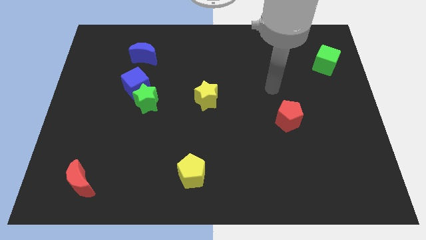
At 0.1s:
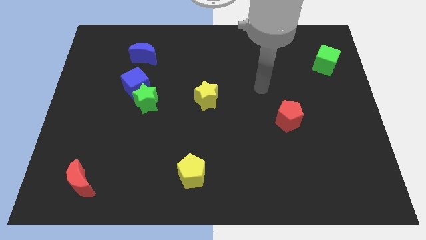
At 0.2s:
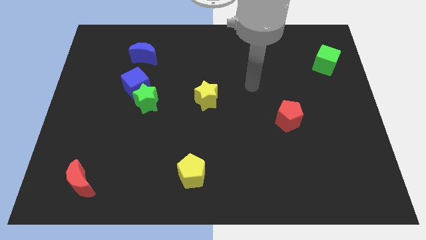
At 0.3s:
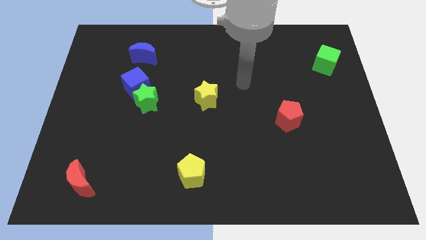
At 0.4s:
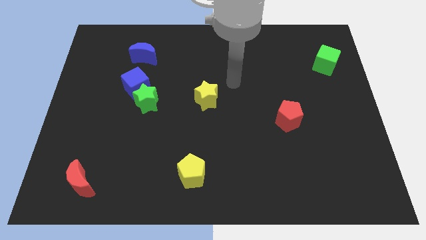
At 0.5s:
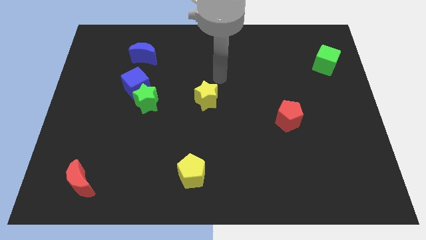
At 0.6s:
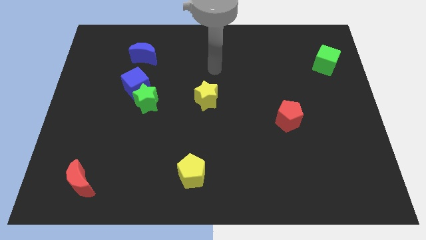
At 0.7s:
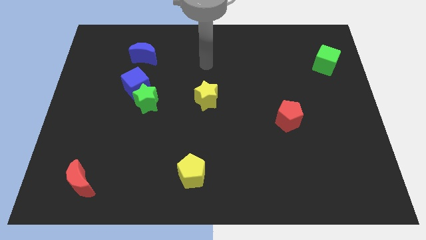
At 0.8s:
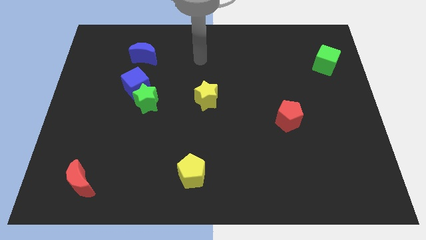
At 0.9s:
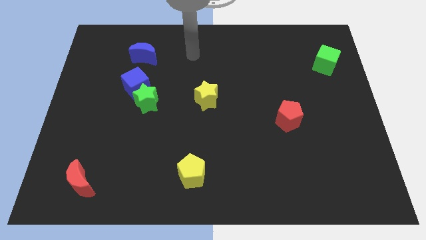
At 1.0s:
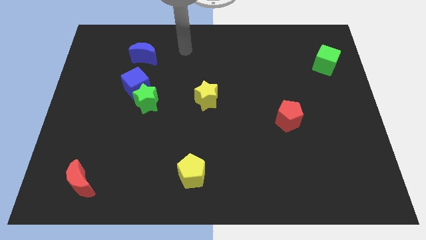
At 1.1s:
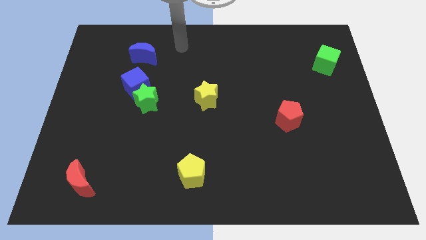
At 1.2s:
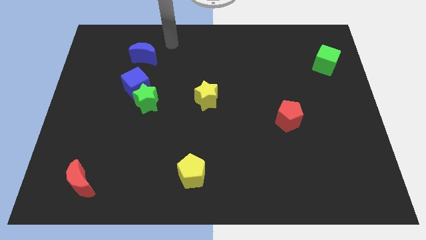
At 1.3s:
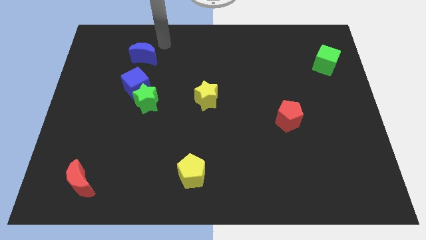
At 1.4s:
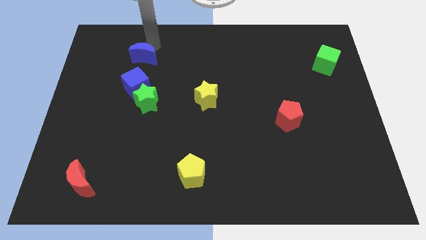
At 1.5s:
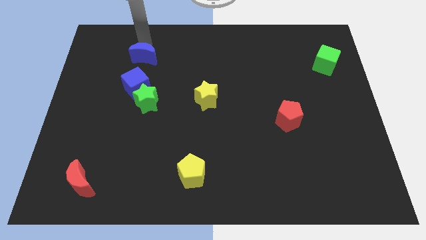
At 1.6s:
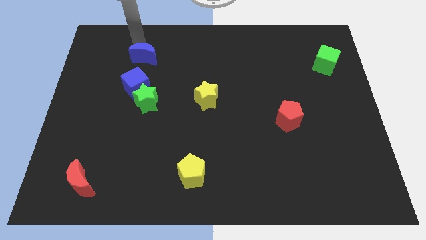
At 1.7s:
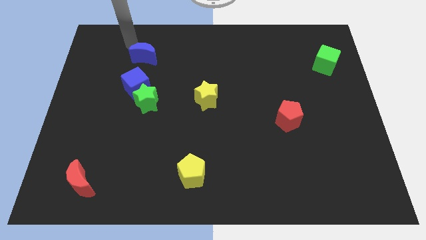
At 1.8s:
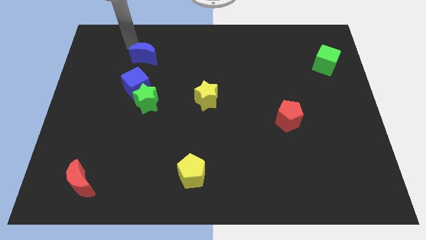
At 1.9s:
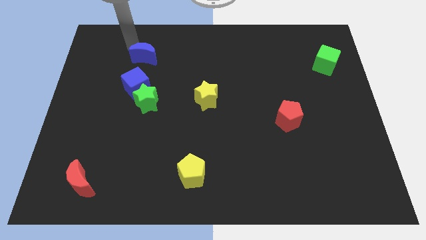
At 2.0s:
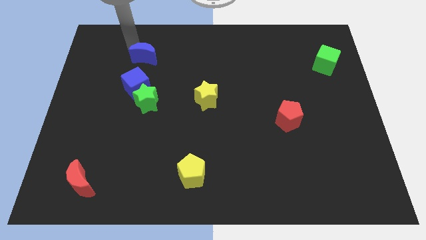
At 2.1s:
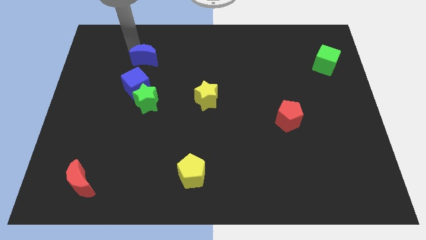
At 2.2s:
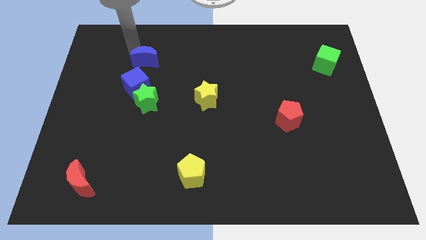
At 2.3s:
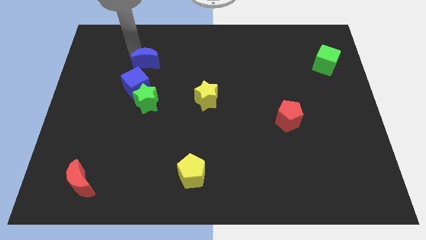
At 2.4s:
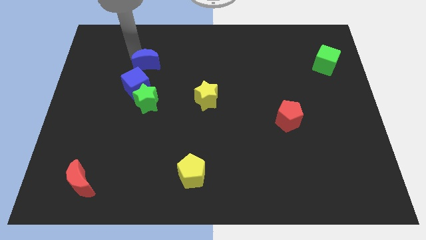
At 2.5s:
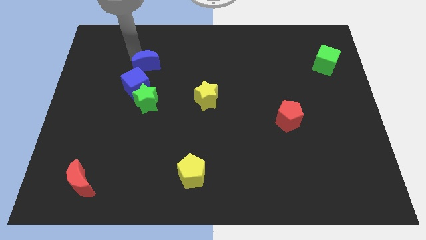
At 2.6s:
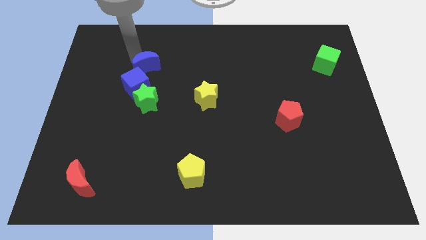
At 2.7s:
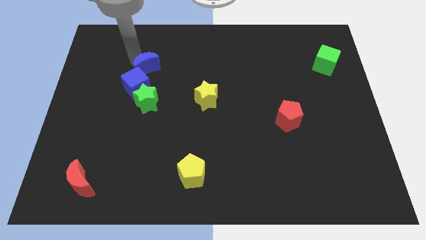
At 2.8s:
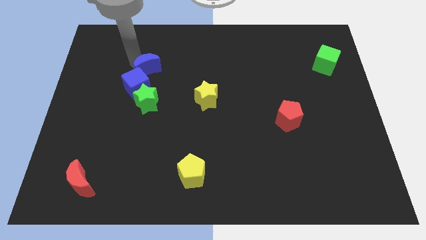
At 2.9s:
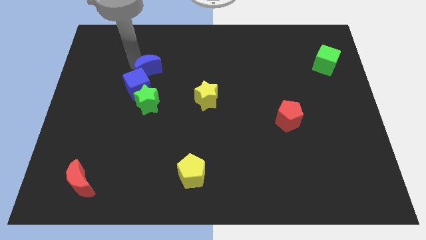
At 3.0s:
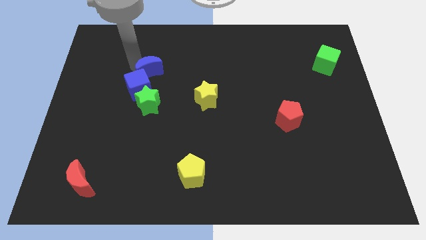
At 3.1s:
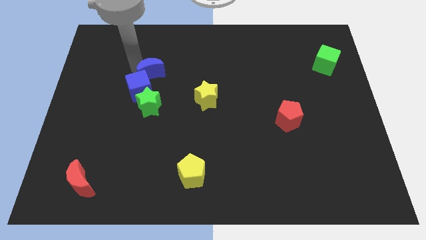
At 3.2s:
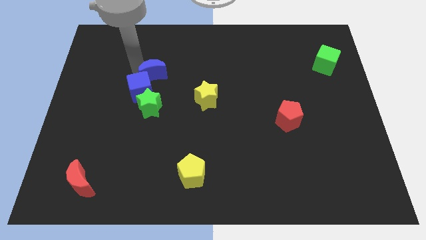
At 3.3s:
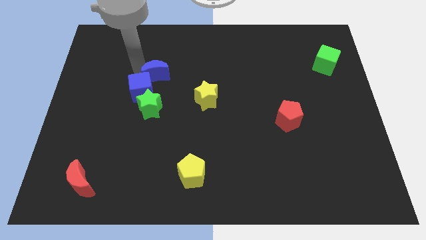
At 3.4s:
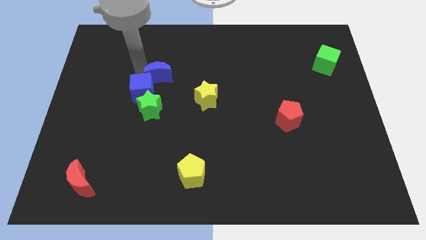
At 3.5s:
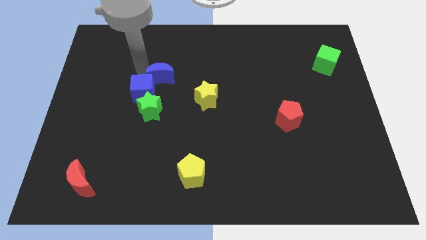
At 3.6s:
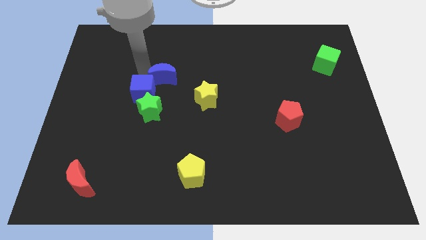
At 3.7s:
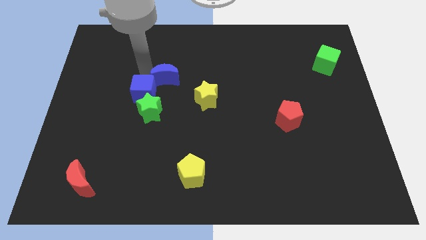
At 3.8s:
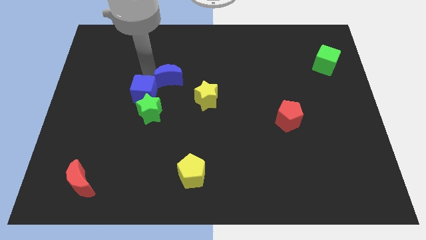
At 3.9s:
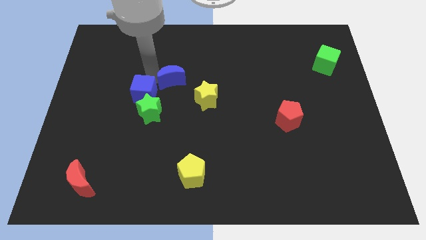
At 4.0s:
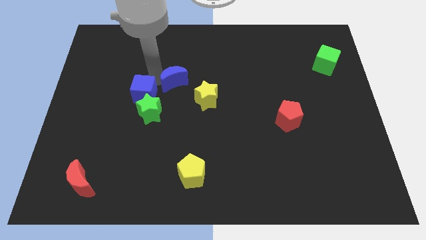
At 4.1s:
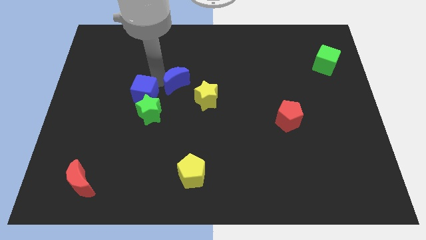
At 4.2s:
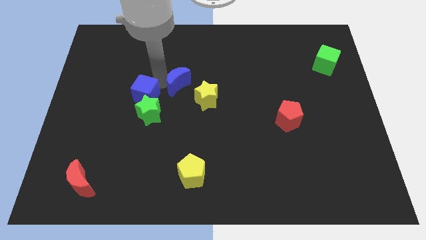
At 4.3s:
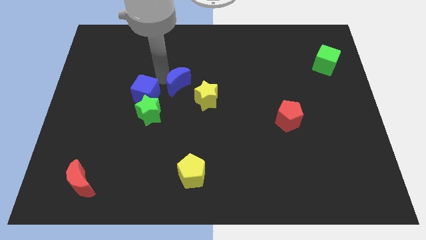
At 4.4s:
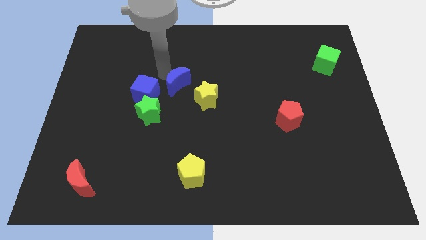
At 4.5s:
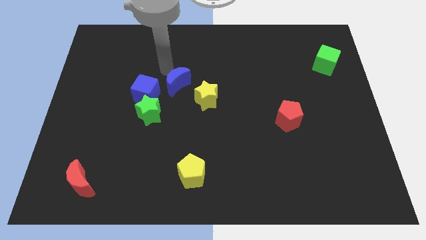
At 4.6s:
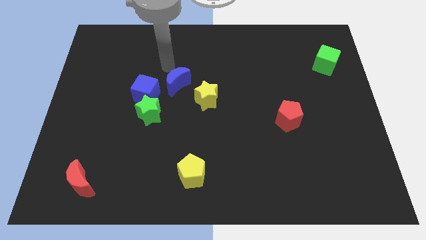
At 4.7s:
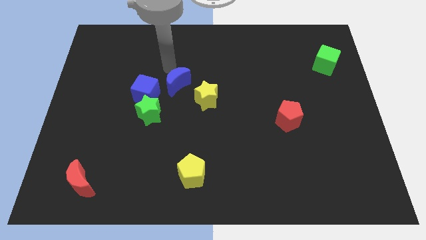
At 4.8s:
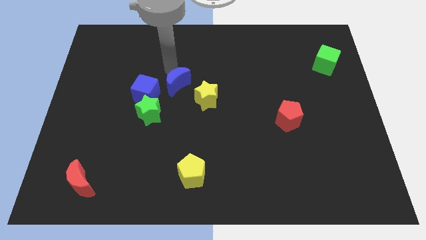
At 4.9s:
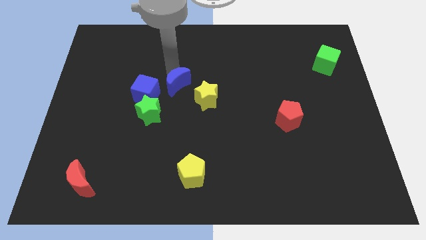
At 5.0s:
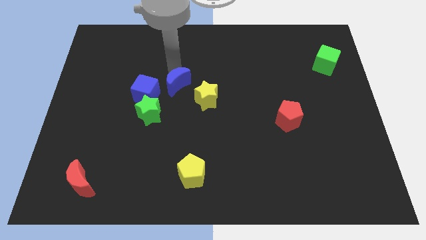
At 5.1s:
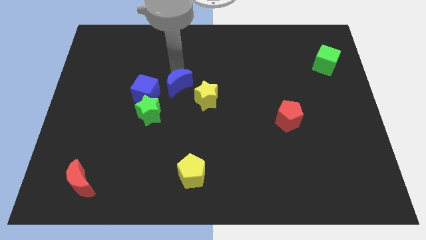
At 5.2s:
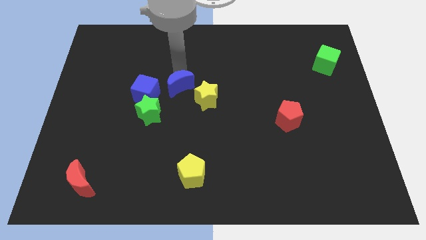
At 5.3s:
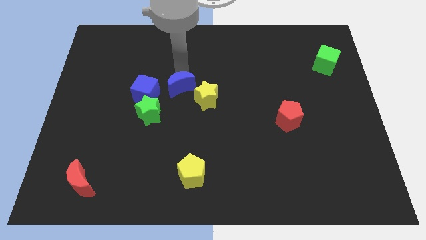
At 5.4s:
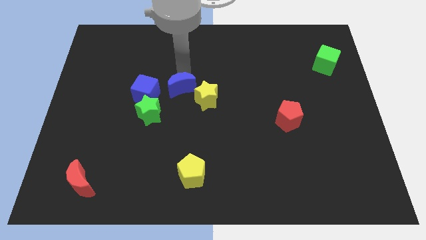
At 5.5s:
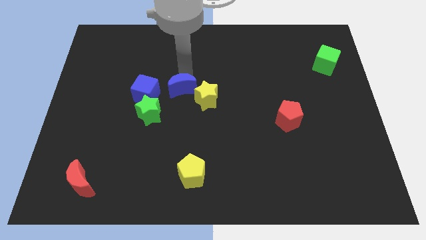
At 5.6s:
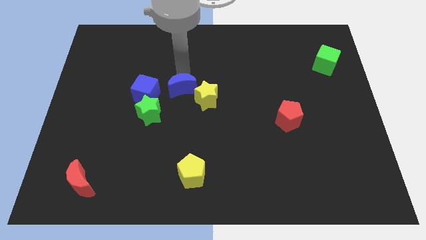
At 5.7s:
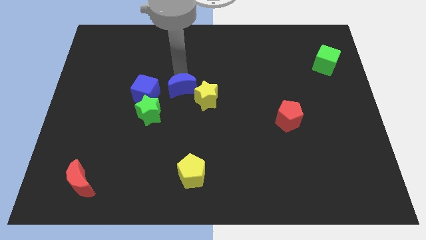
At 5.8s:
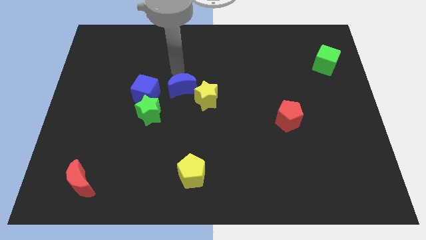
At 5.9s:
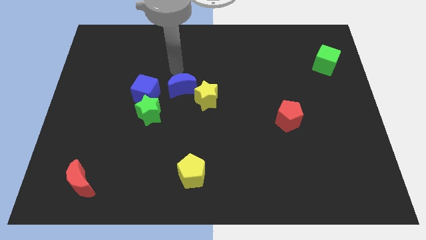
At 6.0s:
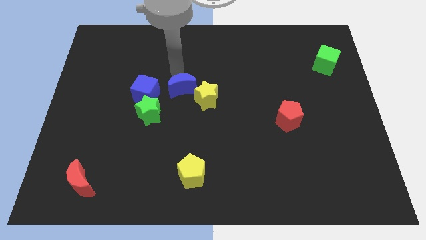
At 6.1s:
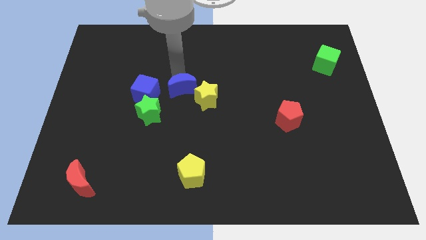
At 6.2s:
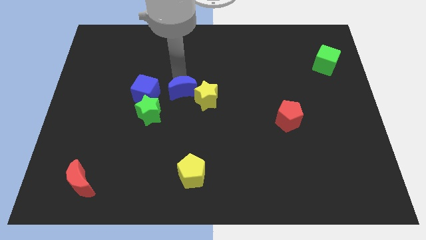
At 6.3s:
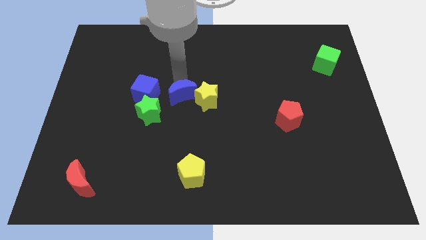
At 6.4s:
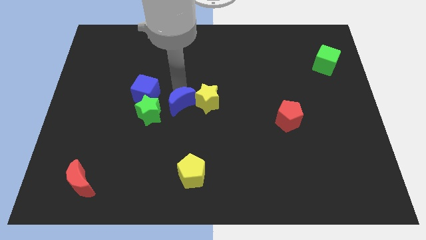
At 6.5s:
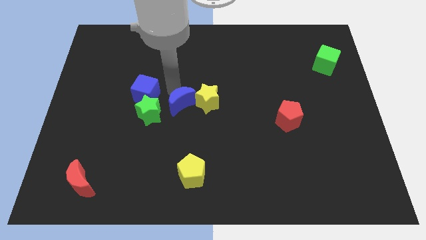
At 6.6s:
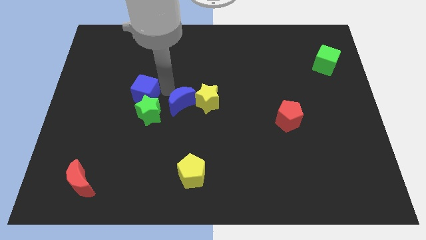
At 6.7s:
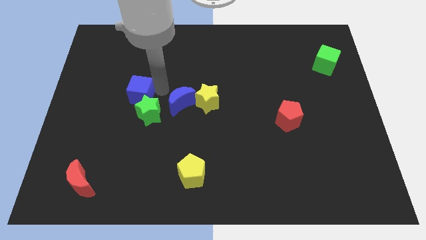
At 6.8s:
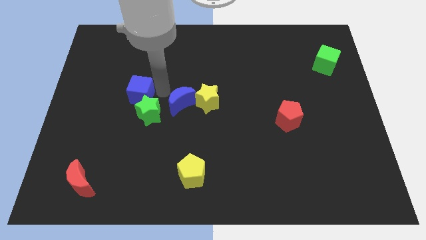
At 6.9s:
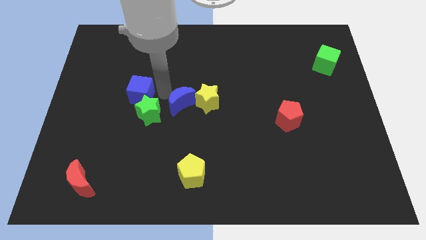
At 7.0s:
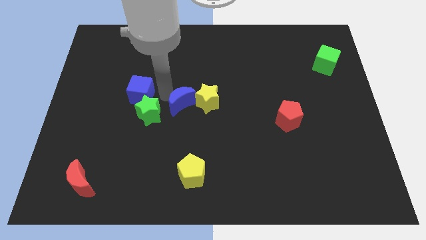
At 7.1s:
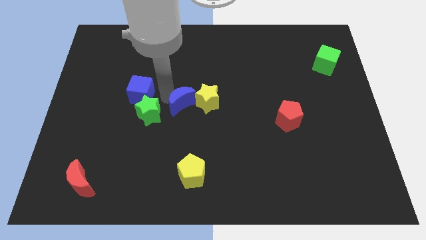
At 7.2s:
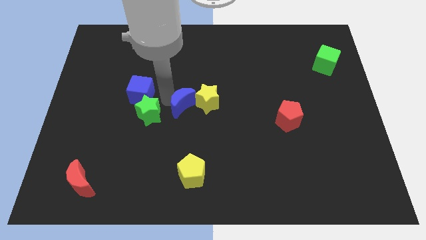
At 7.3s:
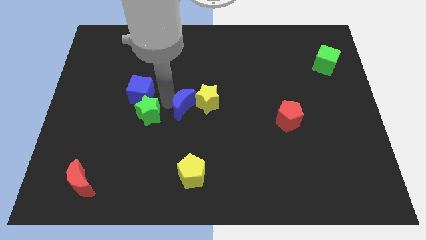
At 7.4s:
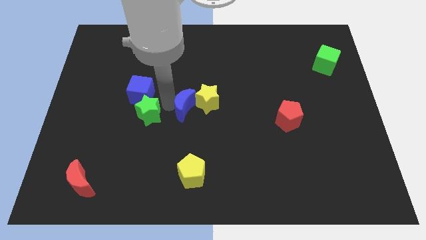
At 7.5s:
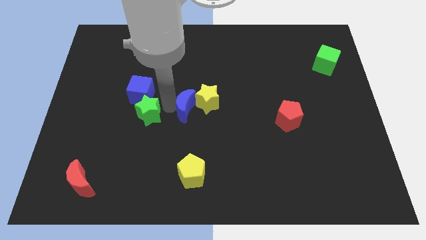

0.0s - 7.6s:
push the blue moon down and then right

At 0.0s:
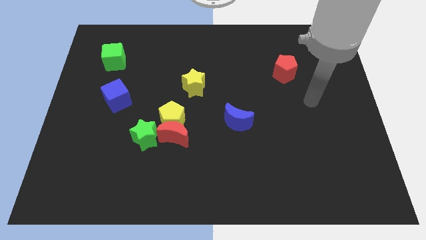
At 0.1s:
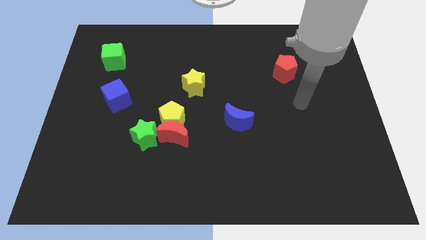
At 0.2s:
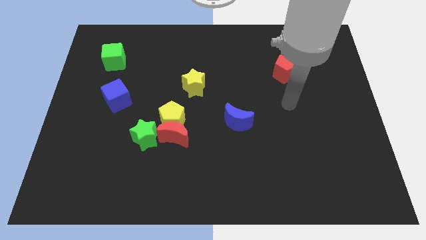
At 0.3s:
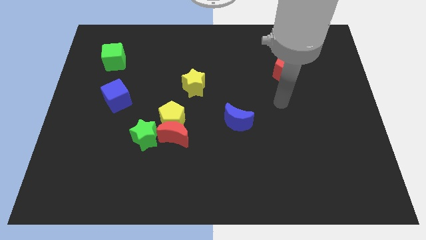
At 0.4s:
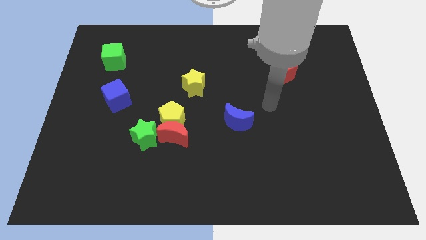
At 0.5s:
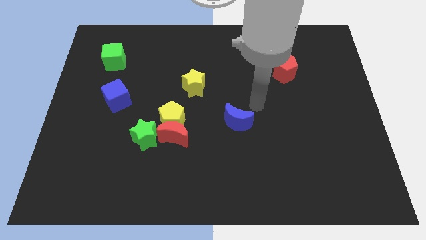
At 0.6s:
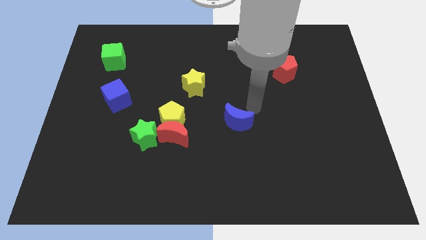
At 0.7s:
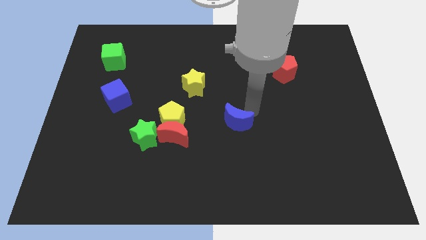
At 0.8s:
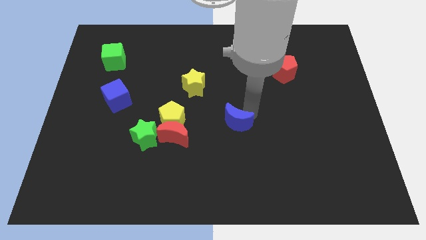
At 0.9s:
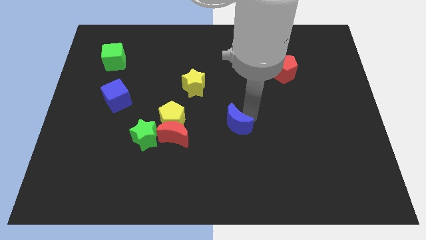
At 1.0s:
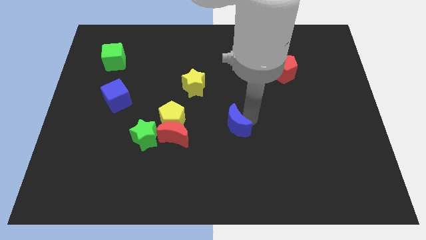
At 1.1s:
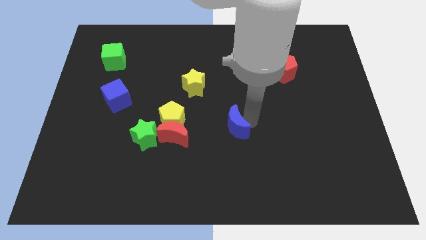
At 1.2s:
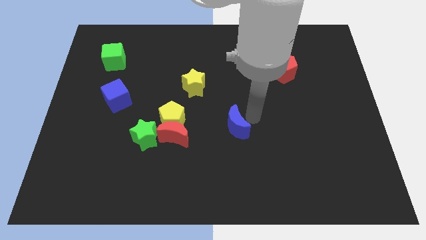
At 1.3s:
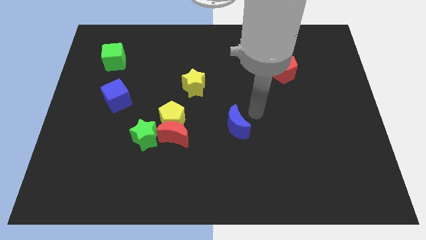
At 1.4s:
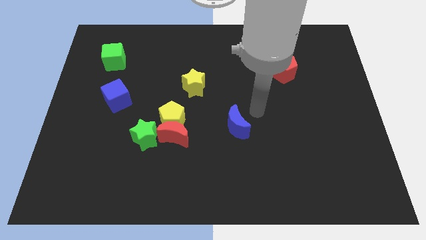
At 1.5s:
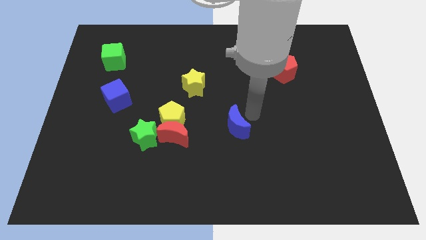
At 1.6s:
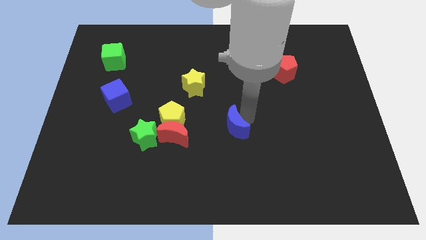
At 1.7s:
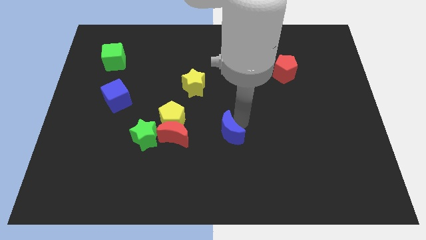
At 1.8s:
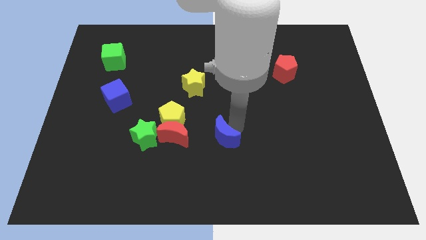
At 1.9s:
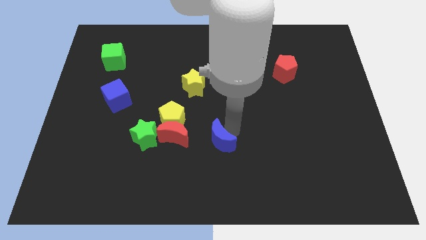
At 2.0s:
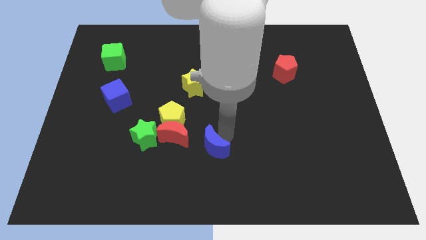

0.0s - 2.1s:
slide the blue moon downwards and then left slightly
